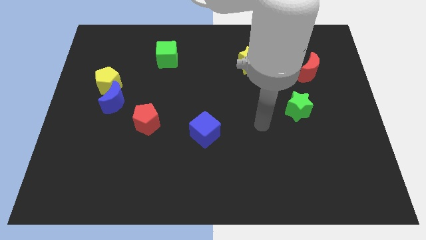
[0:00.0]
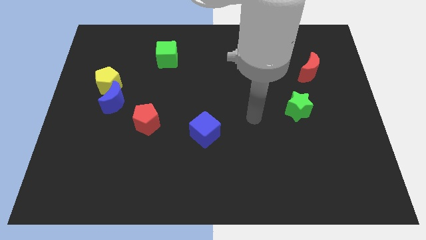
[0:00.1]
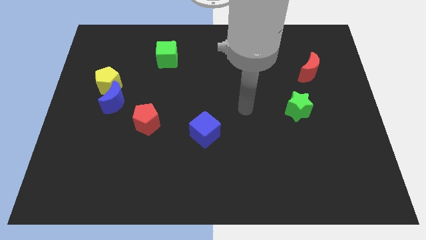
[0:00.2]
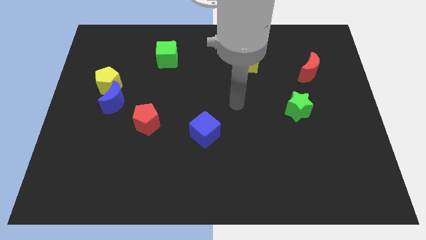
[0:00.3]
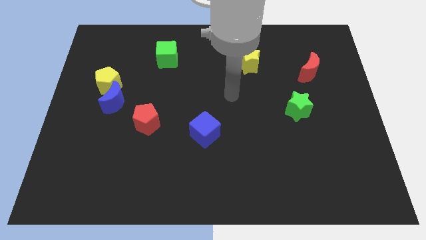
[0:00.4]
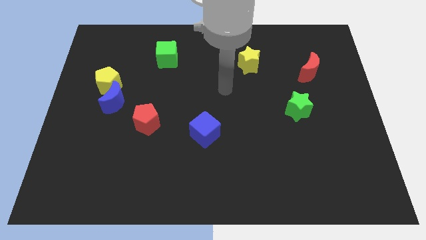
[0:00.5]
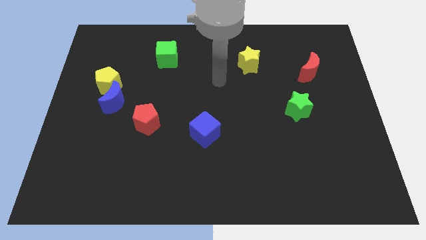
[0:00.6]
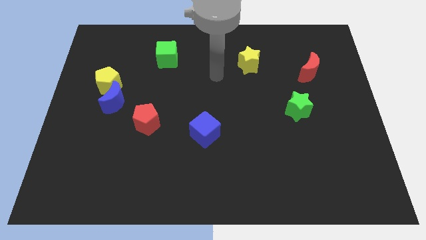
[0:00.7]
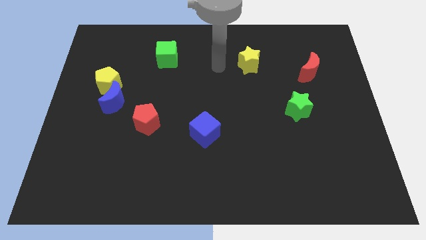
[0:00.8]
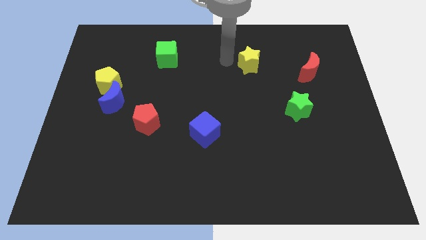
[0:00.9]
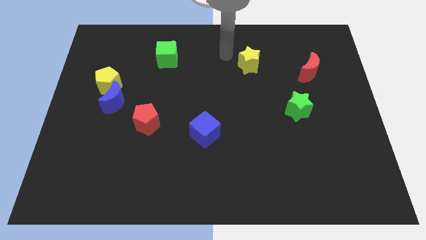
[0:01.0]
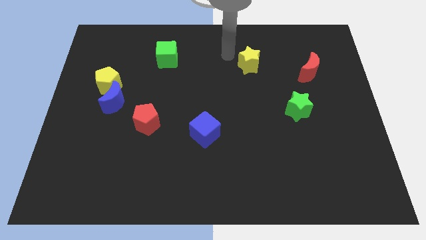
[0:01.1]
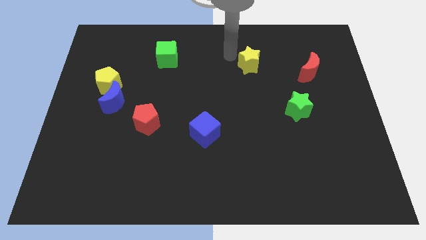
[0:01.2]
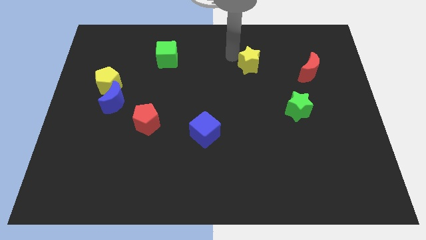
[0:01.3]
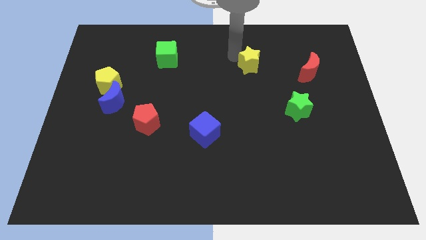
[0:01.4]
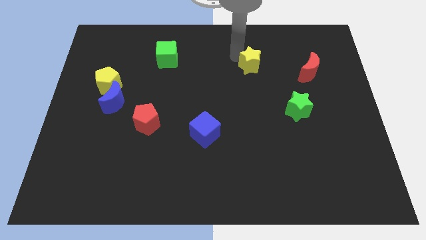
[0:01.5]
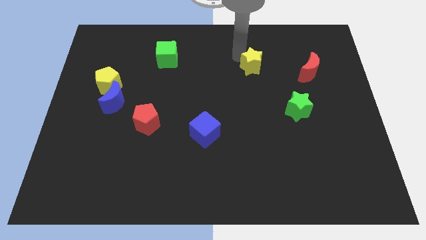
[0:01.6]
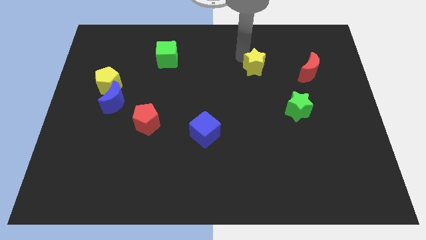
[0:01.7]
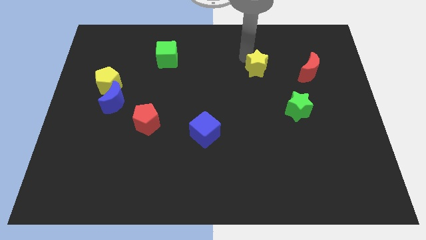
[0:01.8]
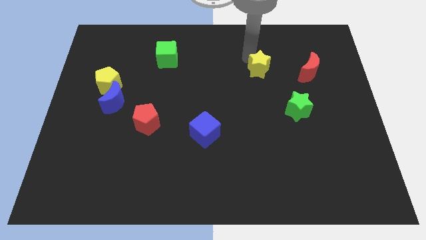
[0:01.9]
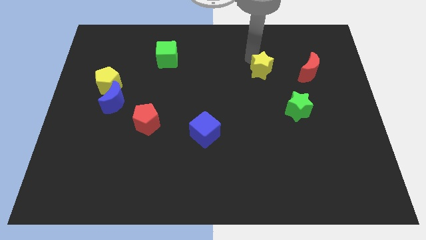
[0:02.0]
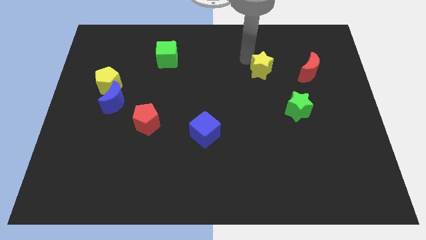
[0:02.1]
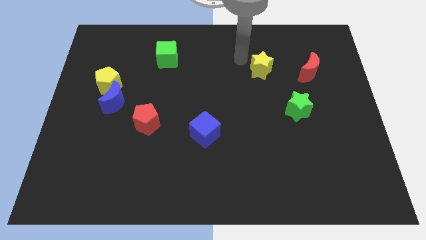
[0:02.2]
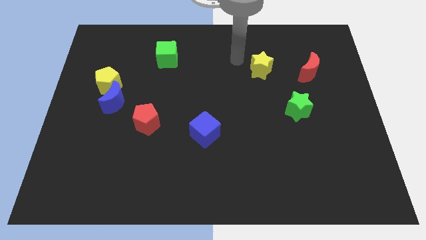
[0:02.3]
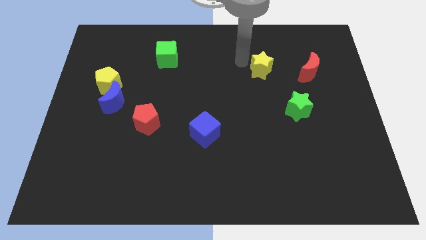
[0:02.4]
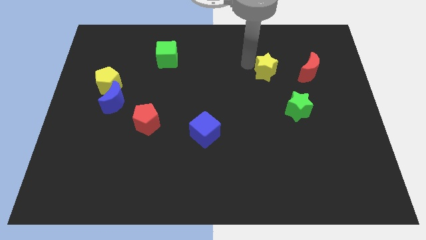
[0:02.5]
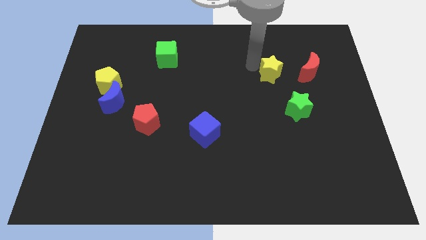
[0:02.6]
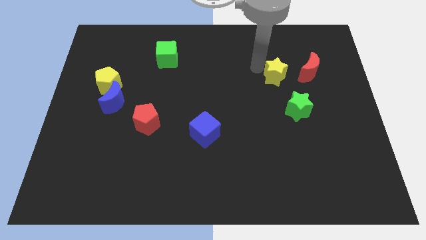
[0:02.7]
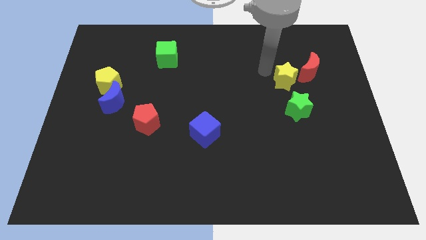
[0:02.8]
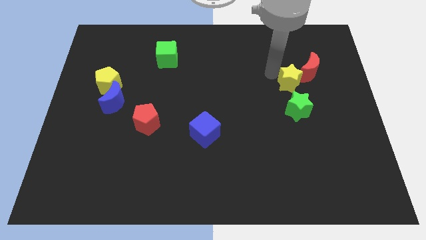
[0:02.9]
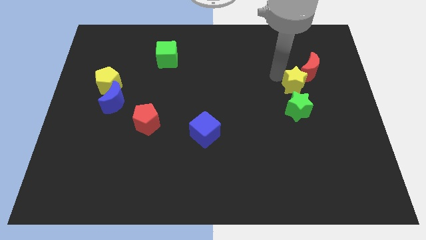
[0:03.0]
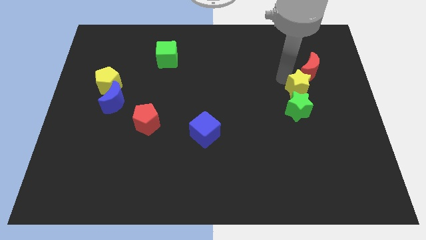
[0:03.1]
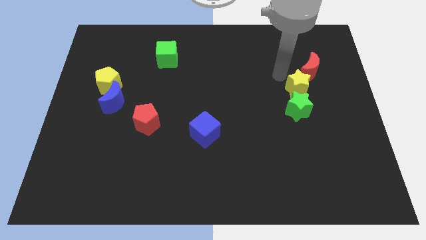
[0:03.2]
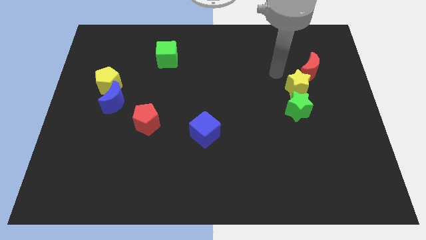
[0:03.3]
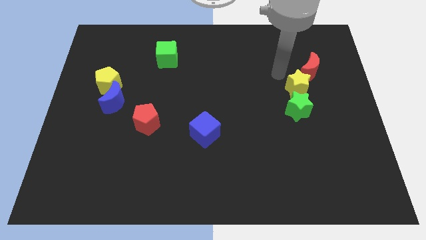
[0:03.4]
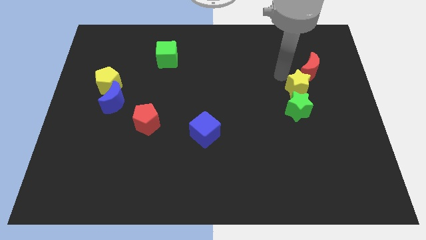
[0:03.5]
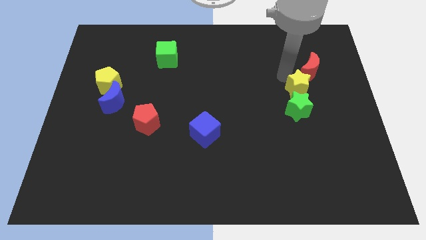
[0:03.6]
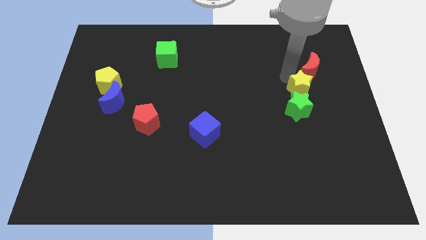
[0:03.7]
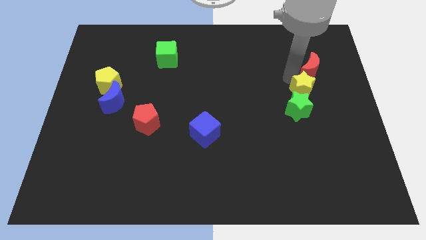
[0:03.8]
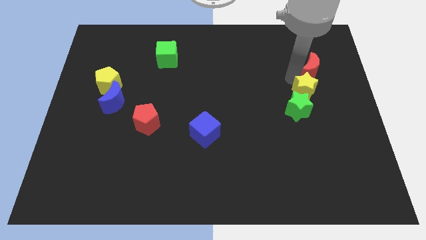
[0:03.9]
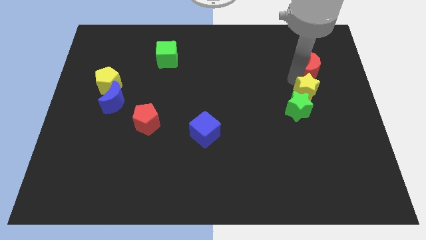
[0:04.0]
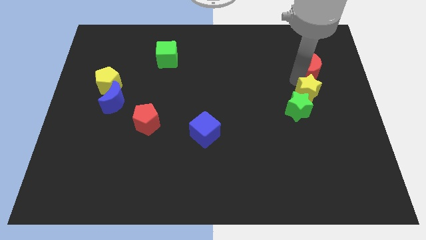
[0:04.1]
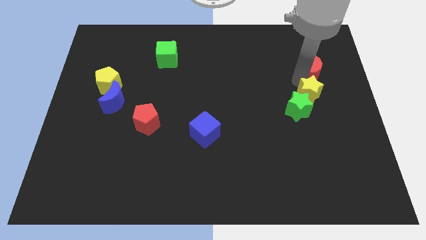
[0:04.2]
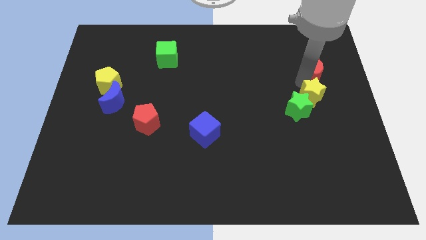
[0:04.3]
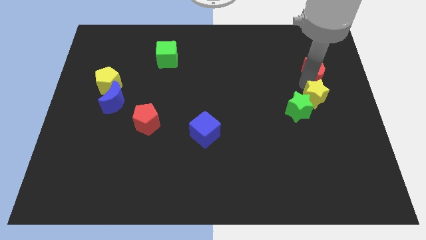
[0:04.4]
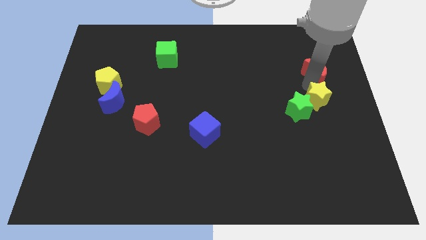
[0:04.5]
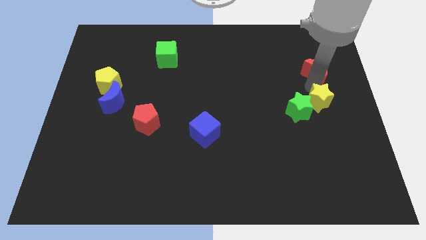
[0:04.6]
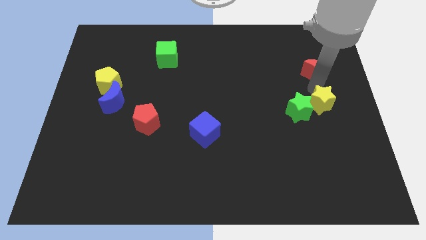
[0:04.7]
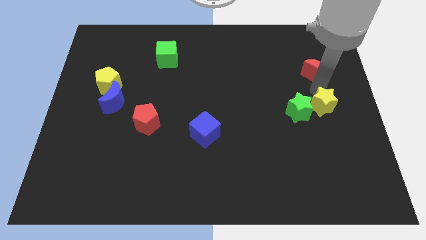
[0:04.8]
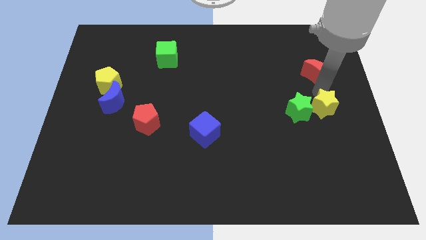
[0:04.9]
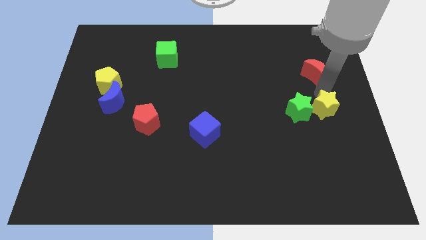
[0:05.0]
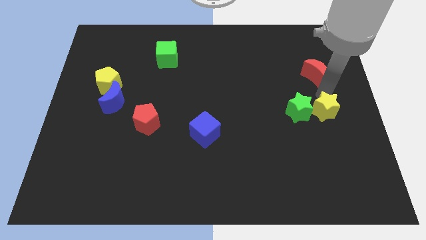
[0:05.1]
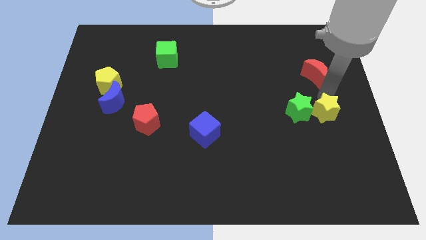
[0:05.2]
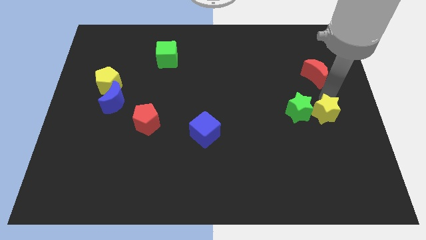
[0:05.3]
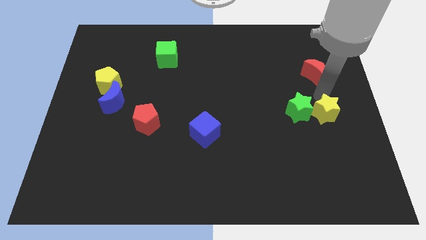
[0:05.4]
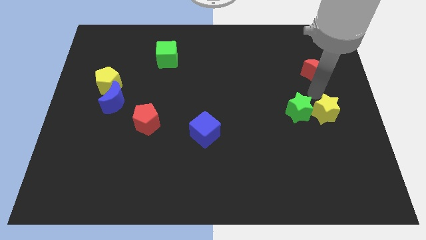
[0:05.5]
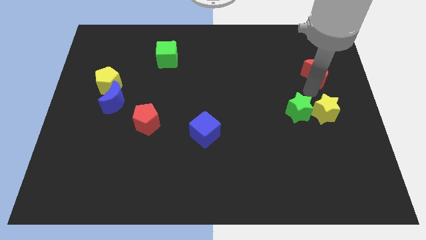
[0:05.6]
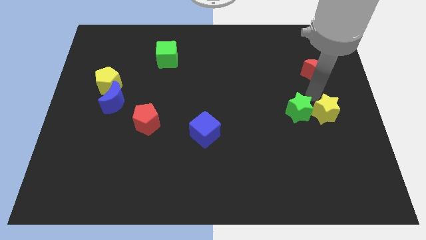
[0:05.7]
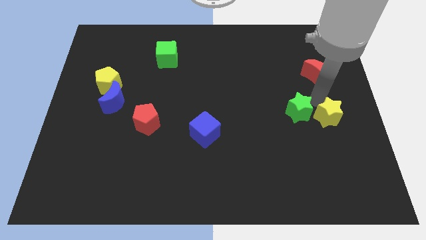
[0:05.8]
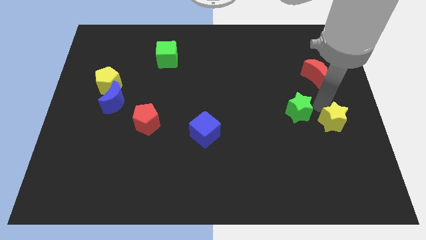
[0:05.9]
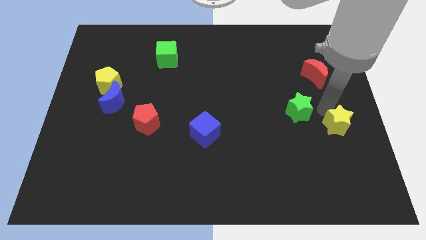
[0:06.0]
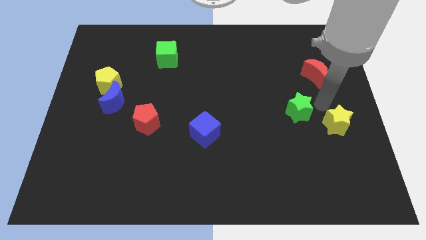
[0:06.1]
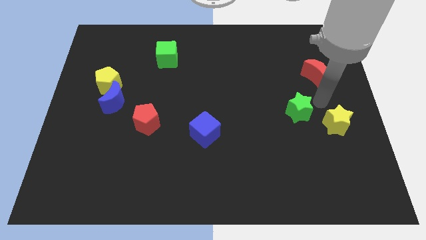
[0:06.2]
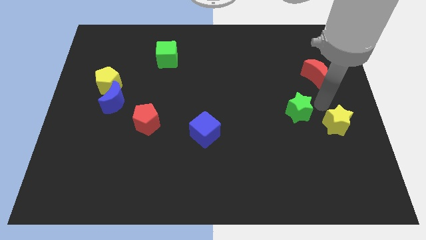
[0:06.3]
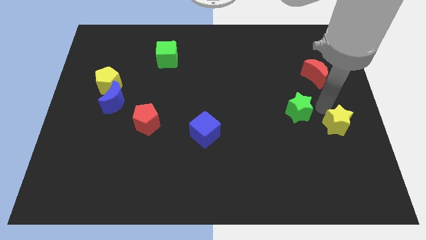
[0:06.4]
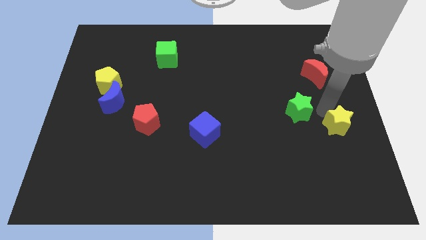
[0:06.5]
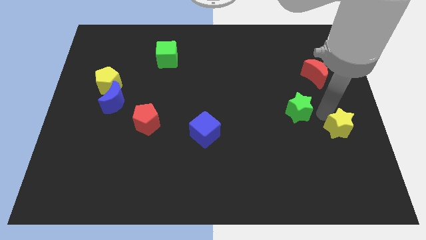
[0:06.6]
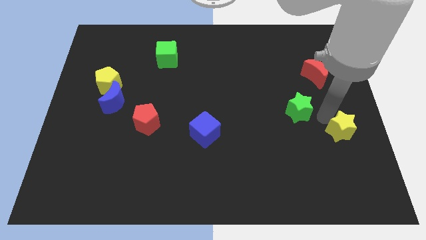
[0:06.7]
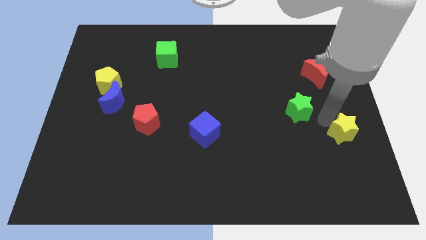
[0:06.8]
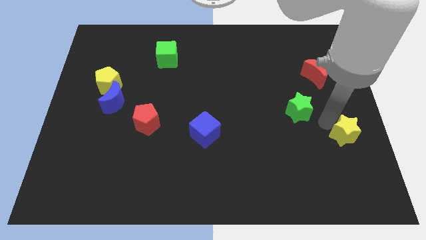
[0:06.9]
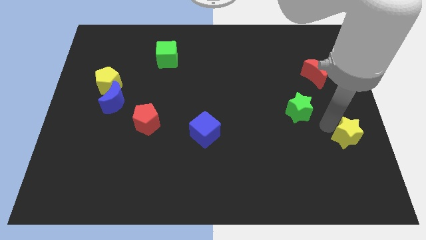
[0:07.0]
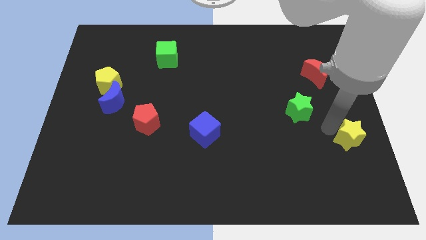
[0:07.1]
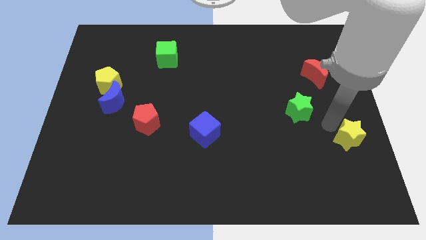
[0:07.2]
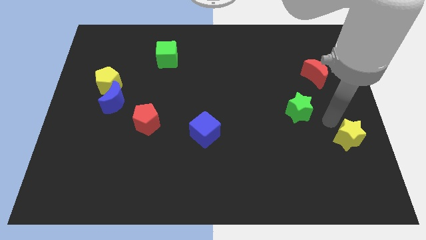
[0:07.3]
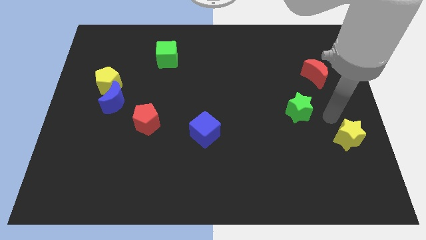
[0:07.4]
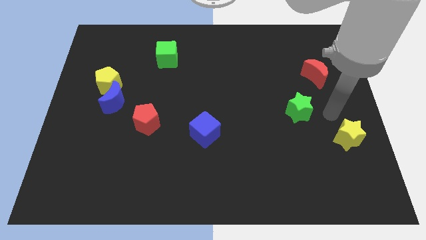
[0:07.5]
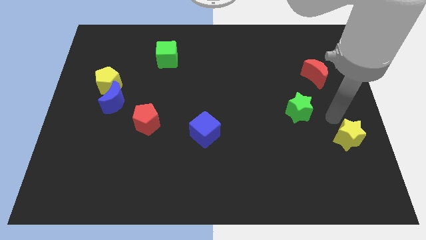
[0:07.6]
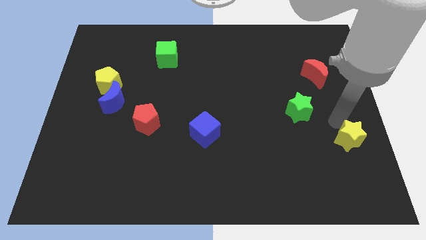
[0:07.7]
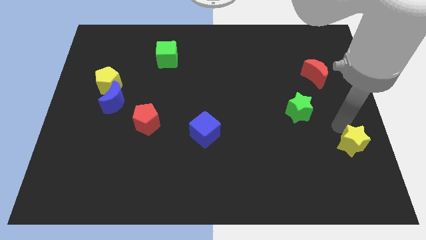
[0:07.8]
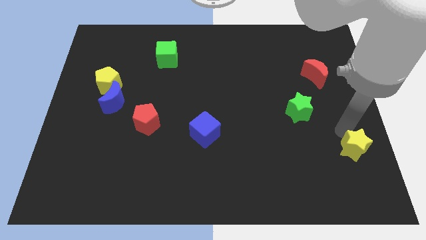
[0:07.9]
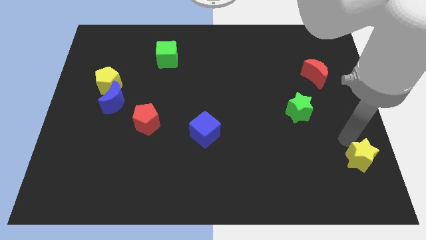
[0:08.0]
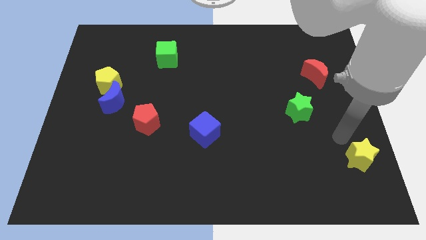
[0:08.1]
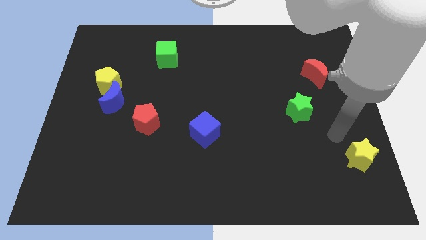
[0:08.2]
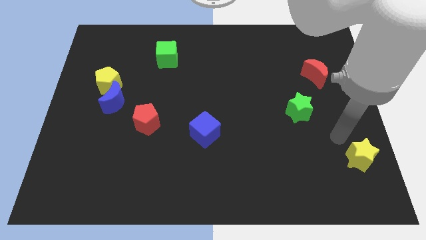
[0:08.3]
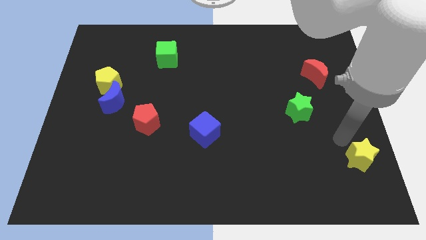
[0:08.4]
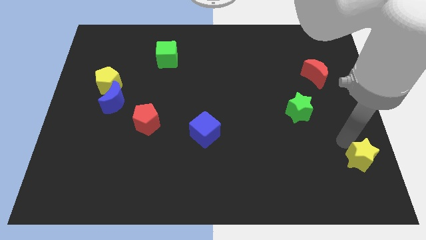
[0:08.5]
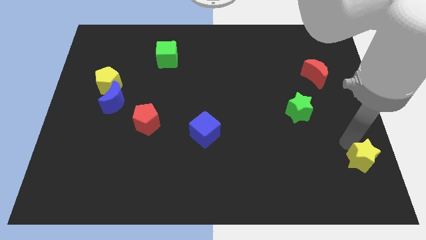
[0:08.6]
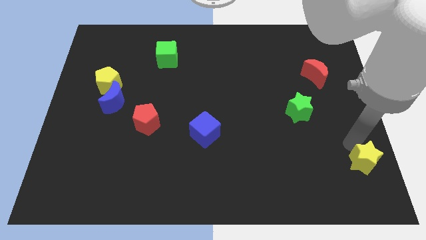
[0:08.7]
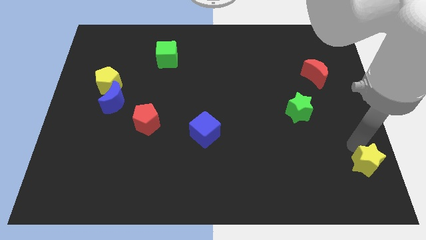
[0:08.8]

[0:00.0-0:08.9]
put the yellow star to the lower right corner
